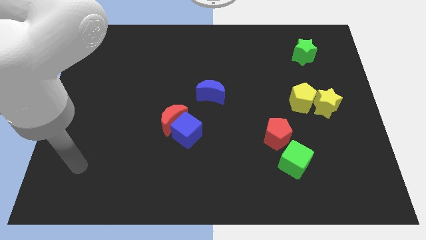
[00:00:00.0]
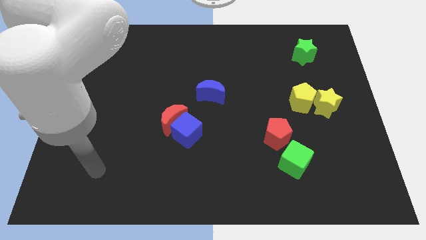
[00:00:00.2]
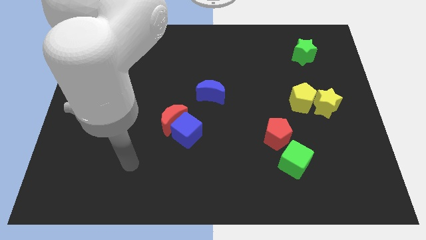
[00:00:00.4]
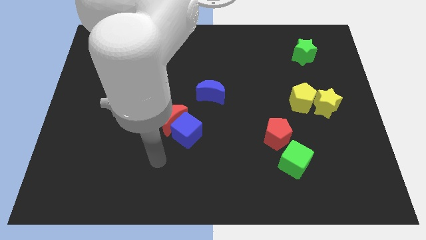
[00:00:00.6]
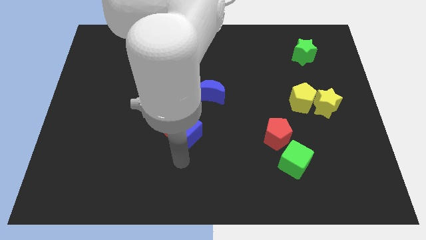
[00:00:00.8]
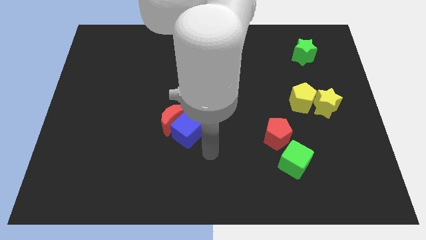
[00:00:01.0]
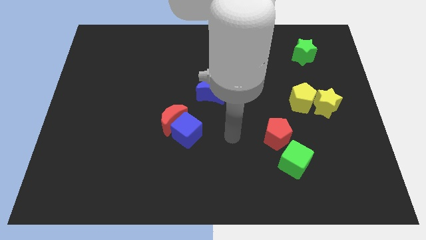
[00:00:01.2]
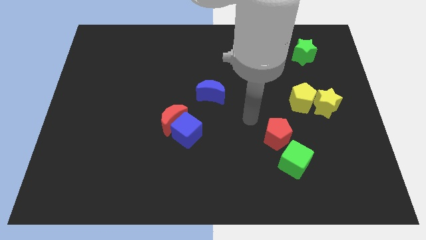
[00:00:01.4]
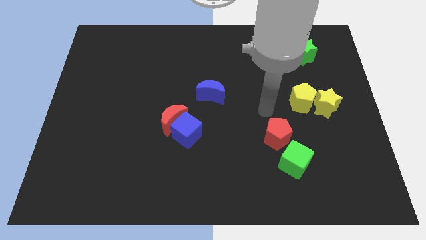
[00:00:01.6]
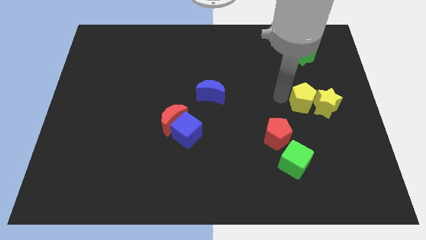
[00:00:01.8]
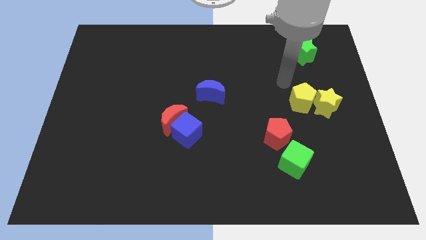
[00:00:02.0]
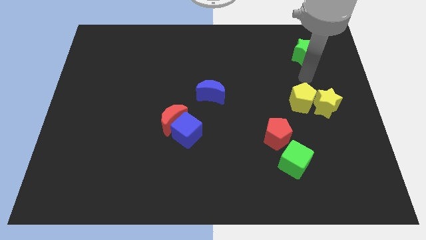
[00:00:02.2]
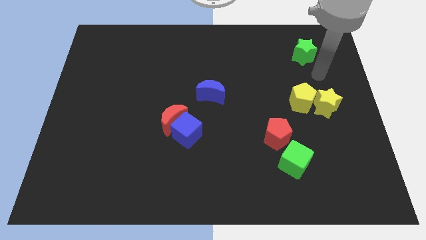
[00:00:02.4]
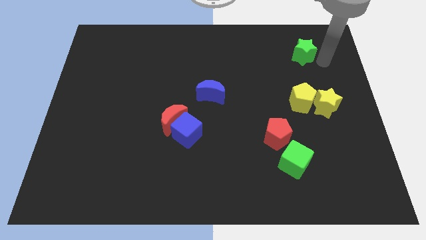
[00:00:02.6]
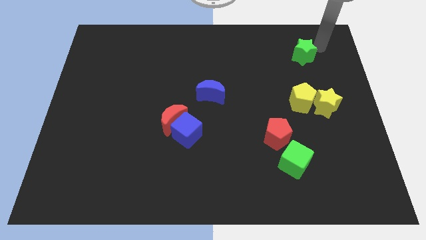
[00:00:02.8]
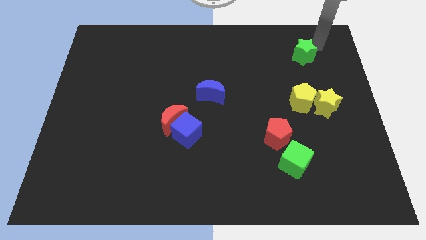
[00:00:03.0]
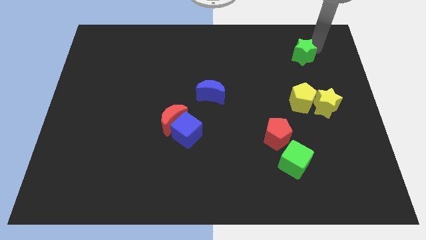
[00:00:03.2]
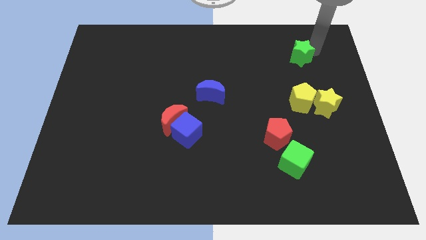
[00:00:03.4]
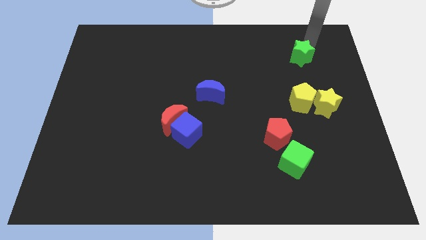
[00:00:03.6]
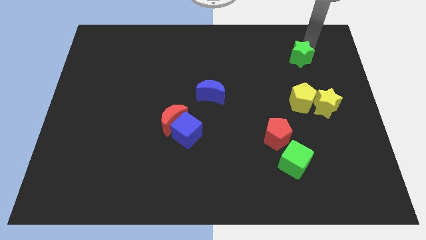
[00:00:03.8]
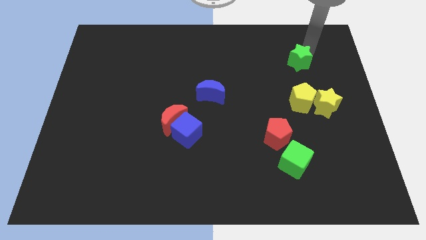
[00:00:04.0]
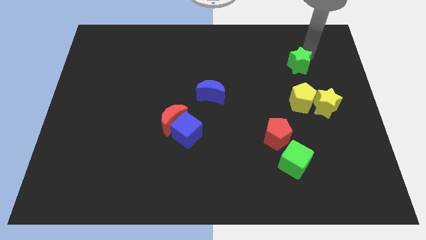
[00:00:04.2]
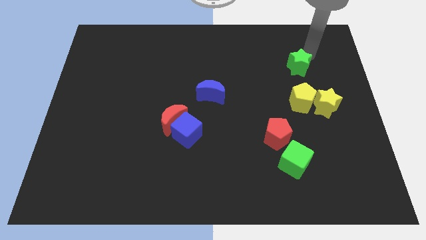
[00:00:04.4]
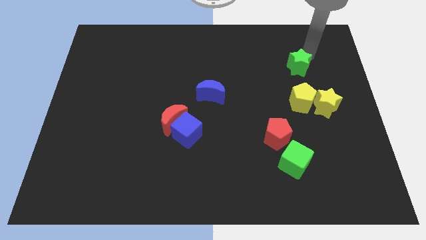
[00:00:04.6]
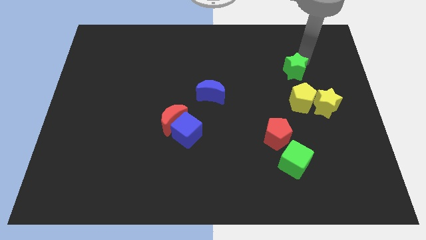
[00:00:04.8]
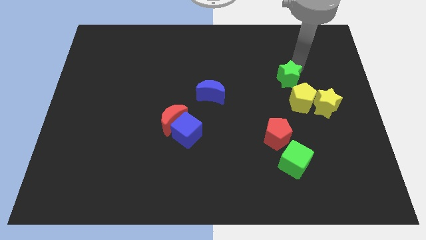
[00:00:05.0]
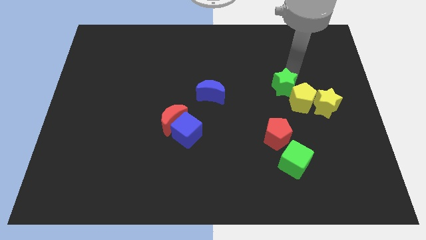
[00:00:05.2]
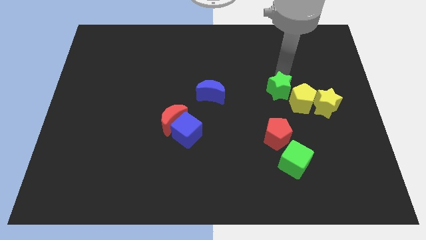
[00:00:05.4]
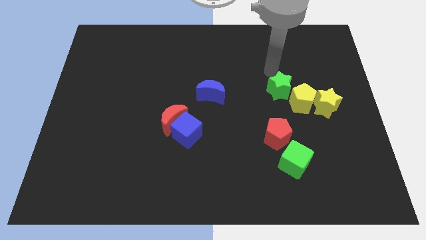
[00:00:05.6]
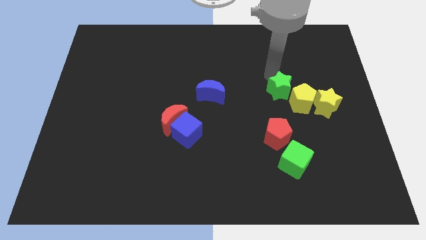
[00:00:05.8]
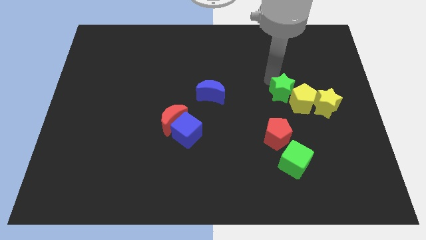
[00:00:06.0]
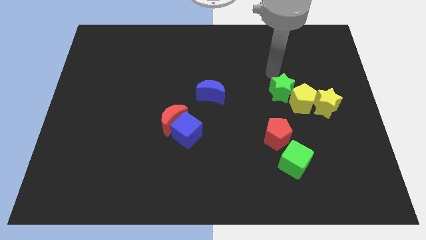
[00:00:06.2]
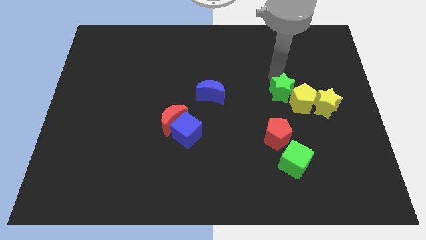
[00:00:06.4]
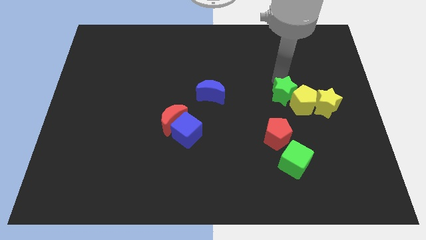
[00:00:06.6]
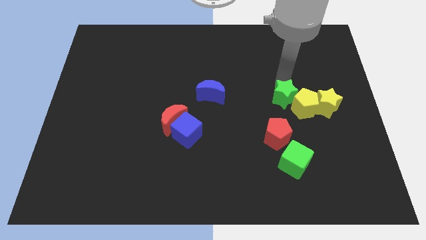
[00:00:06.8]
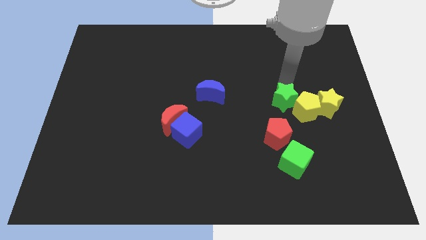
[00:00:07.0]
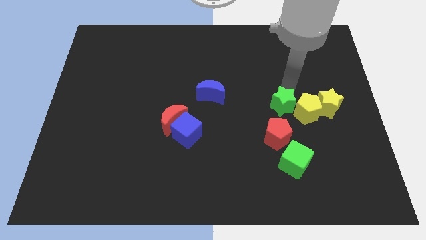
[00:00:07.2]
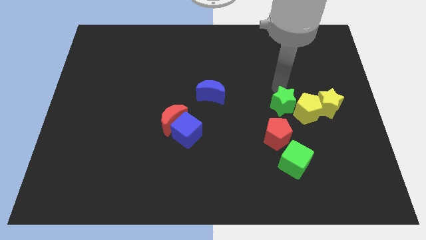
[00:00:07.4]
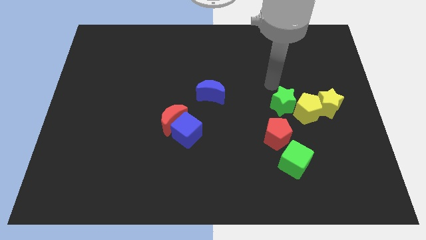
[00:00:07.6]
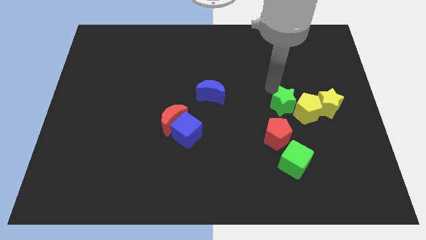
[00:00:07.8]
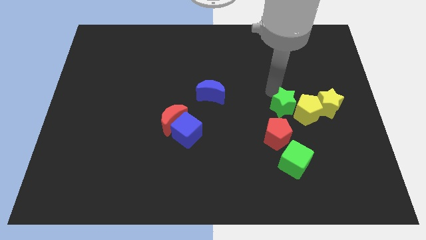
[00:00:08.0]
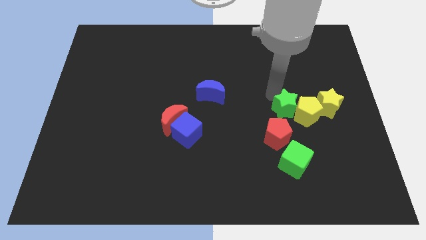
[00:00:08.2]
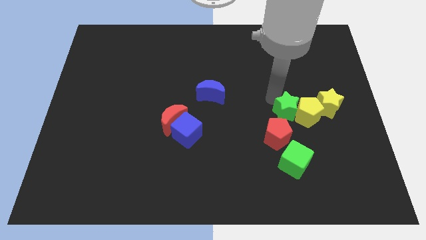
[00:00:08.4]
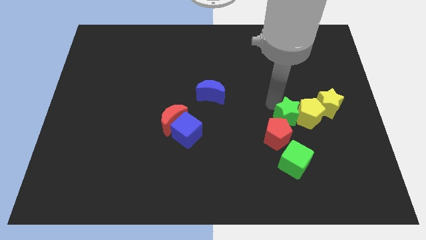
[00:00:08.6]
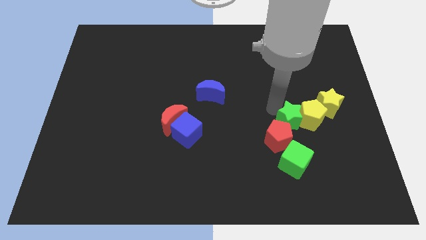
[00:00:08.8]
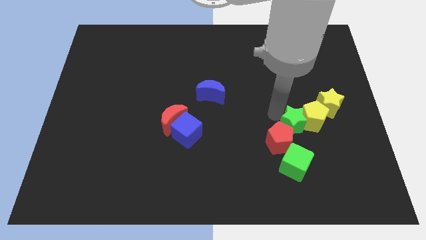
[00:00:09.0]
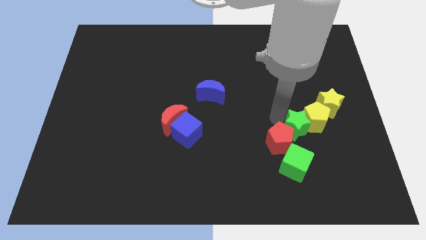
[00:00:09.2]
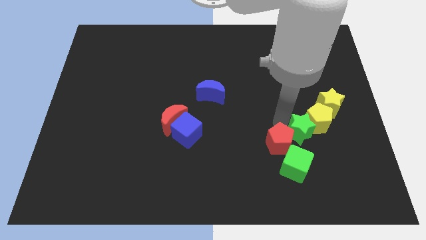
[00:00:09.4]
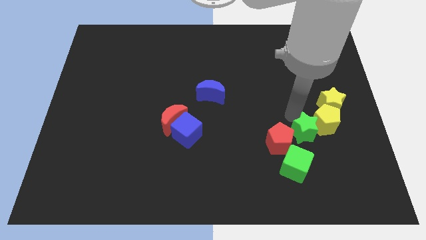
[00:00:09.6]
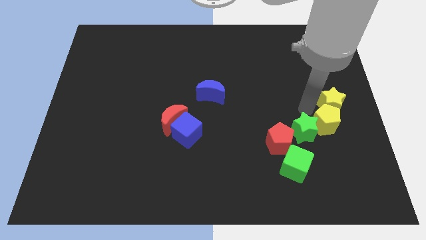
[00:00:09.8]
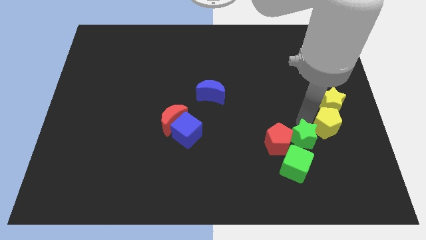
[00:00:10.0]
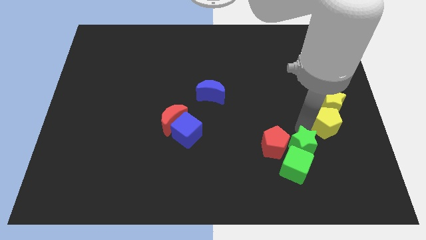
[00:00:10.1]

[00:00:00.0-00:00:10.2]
slide the green star towards the green cube

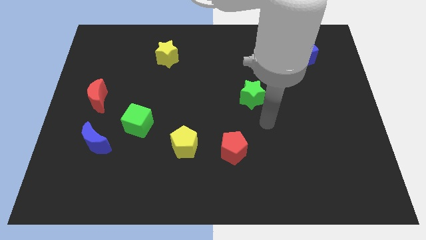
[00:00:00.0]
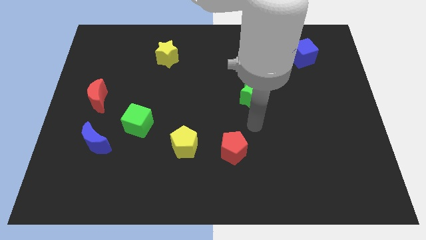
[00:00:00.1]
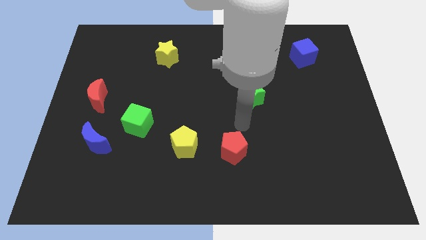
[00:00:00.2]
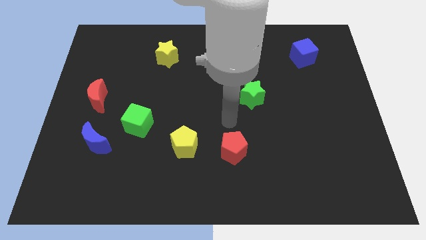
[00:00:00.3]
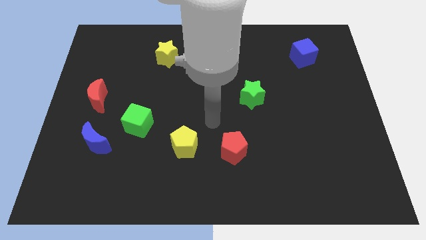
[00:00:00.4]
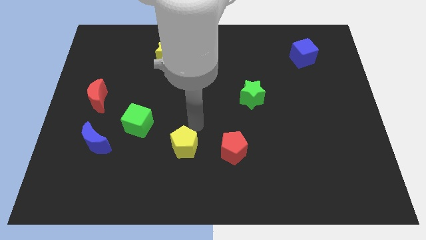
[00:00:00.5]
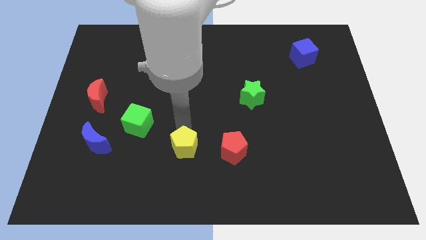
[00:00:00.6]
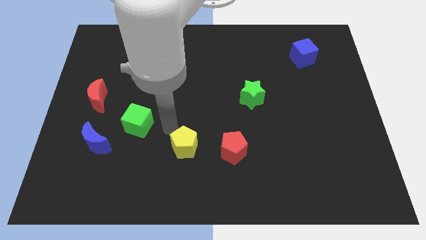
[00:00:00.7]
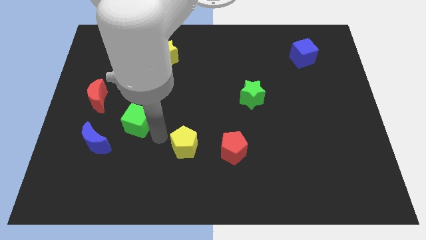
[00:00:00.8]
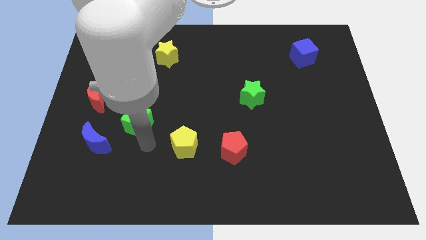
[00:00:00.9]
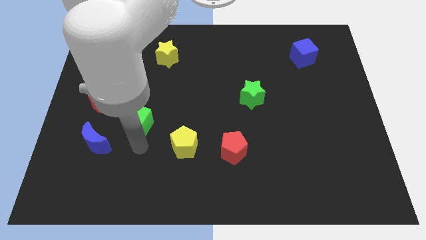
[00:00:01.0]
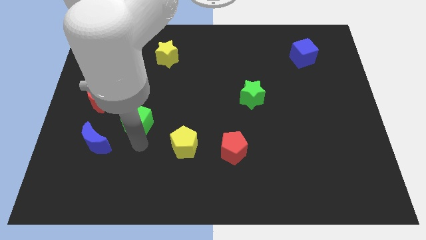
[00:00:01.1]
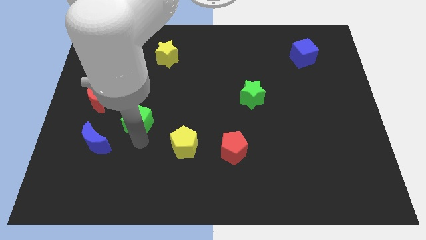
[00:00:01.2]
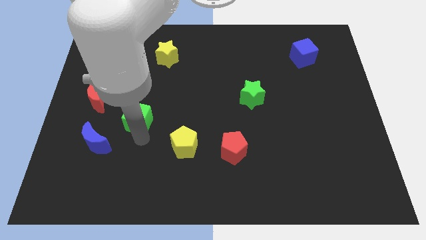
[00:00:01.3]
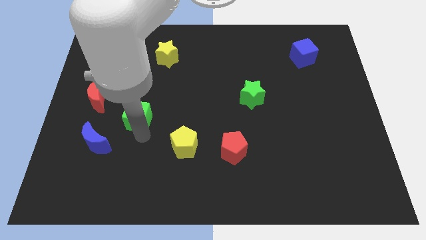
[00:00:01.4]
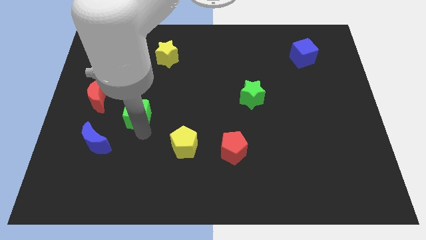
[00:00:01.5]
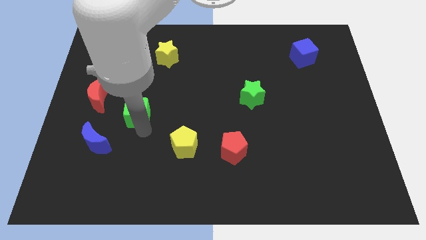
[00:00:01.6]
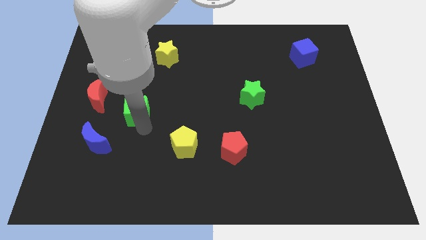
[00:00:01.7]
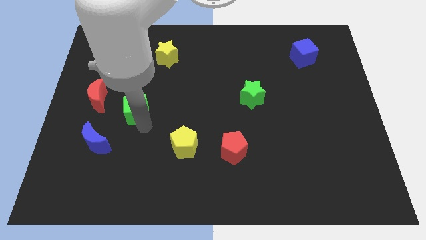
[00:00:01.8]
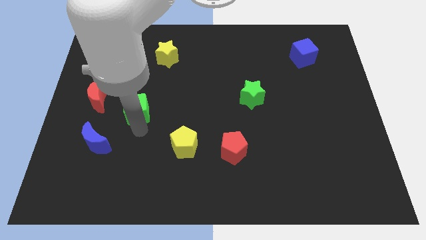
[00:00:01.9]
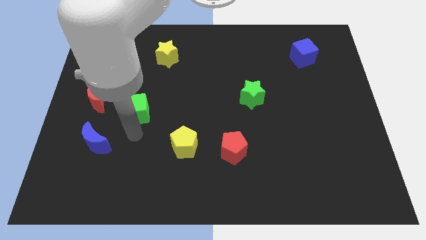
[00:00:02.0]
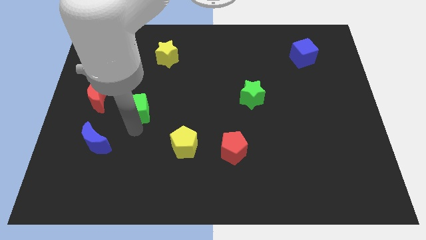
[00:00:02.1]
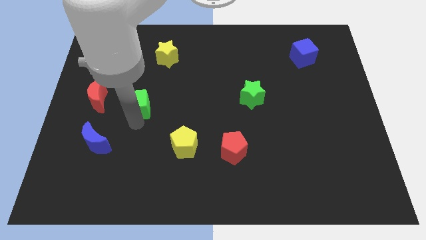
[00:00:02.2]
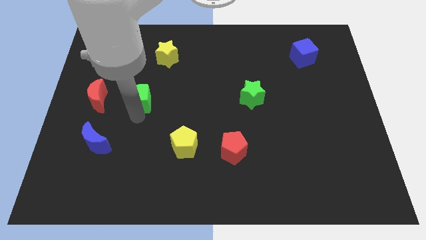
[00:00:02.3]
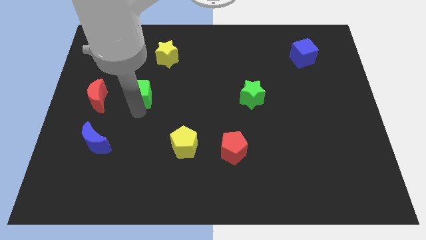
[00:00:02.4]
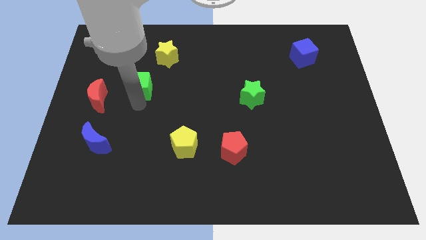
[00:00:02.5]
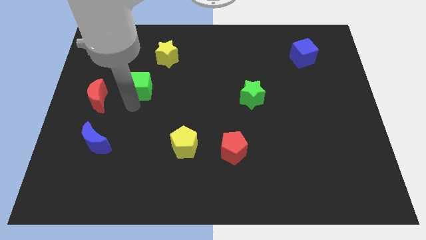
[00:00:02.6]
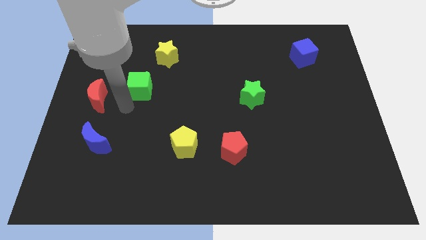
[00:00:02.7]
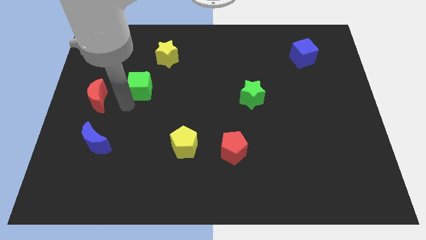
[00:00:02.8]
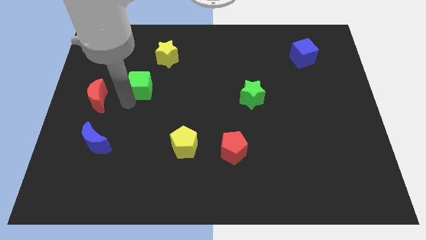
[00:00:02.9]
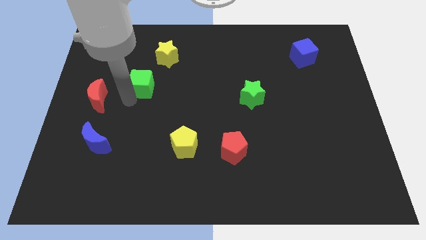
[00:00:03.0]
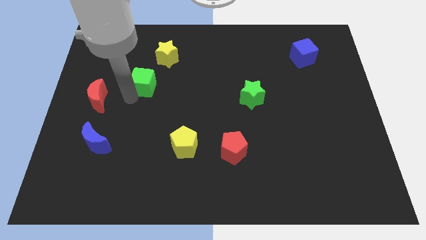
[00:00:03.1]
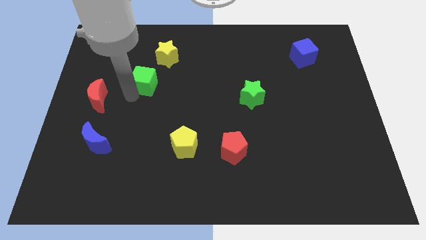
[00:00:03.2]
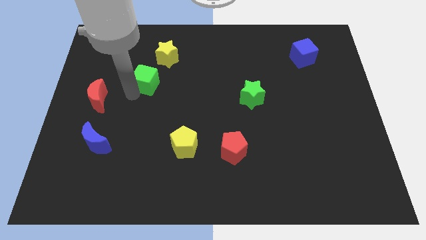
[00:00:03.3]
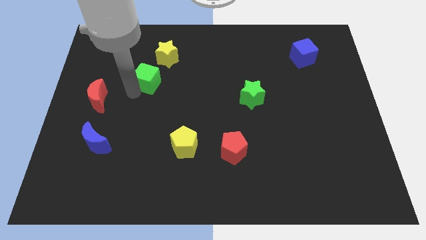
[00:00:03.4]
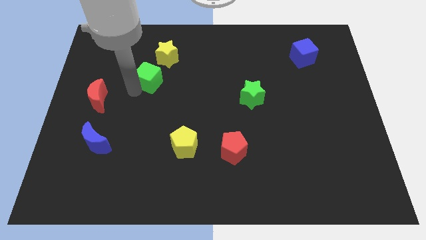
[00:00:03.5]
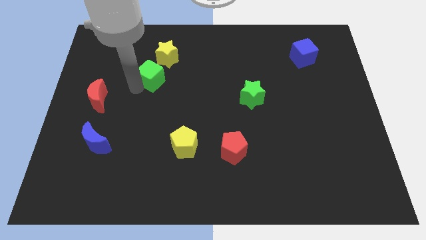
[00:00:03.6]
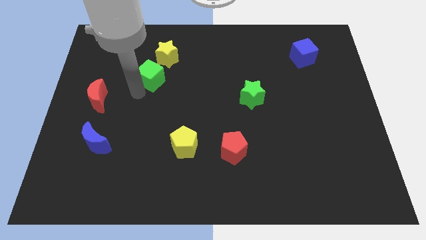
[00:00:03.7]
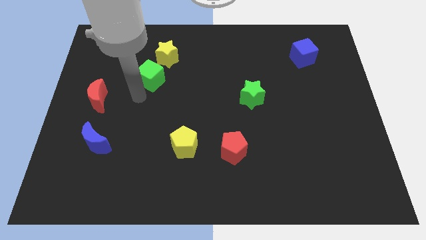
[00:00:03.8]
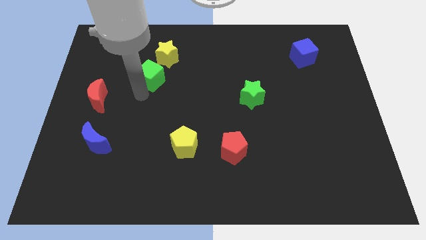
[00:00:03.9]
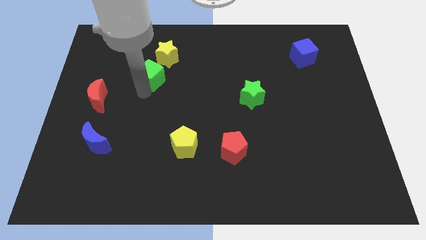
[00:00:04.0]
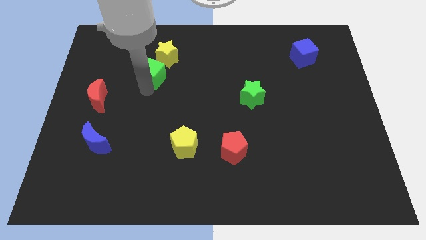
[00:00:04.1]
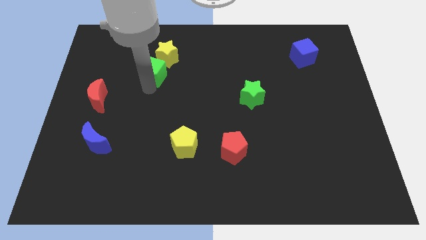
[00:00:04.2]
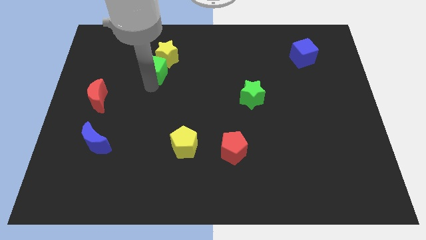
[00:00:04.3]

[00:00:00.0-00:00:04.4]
push the green cube to the yellow star
